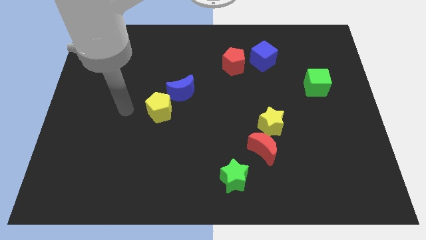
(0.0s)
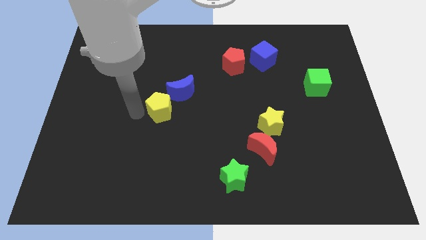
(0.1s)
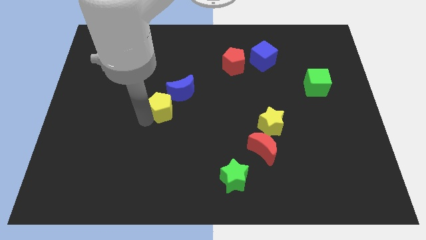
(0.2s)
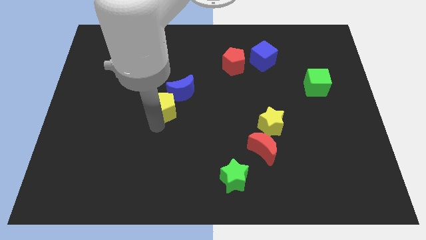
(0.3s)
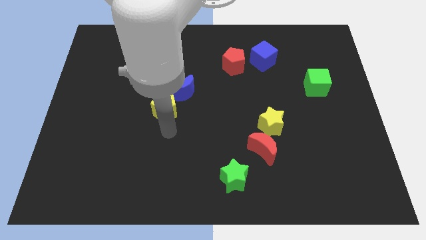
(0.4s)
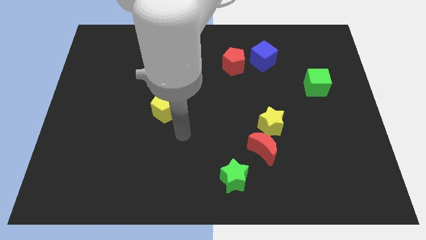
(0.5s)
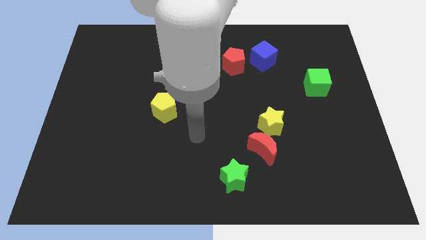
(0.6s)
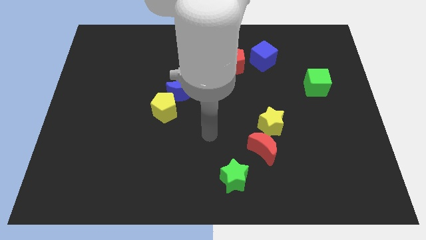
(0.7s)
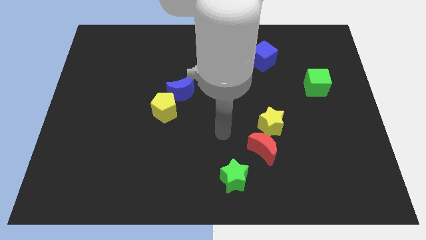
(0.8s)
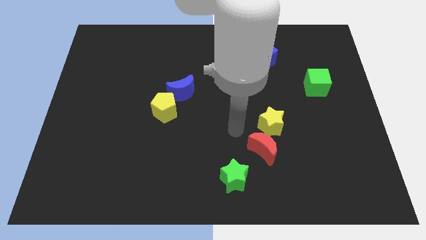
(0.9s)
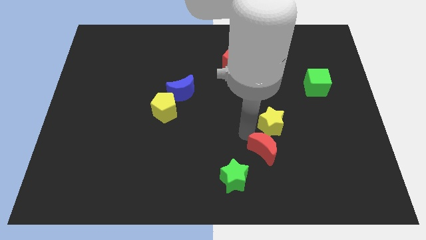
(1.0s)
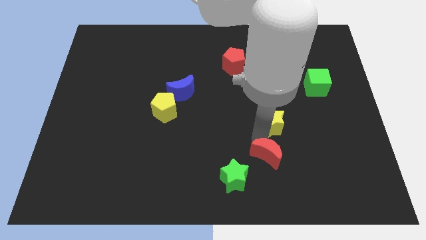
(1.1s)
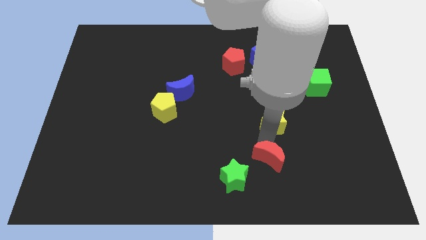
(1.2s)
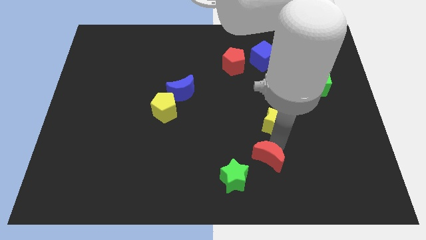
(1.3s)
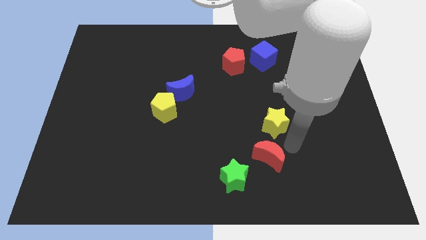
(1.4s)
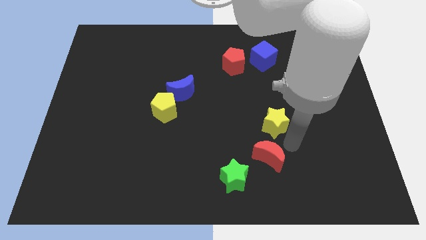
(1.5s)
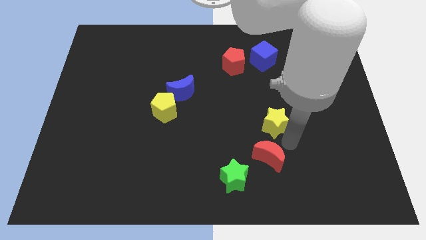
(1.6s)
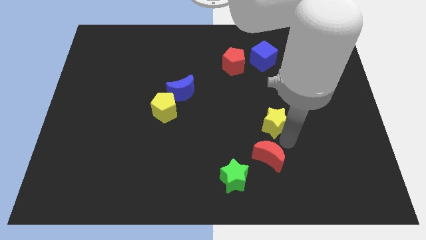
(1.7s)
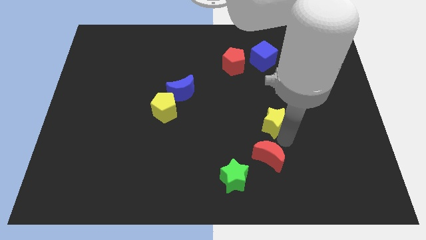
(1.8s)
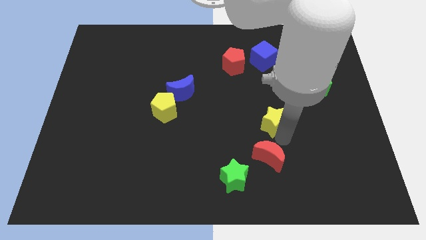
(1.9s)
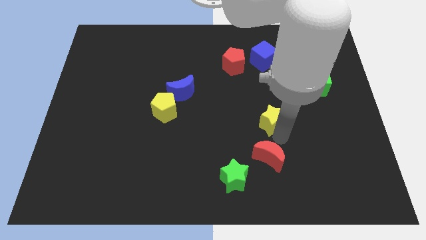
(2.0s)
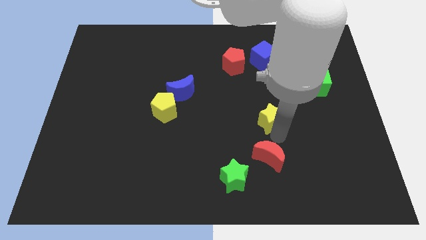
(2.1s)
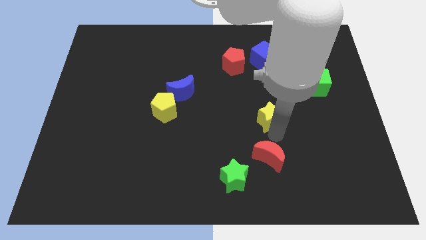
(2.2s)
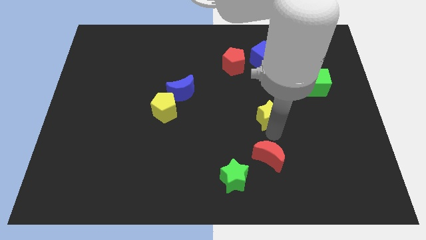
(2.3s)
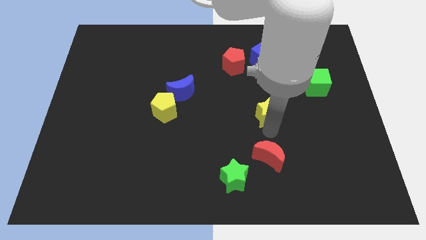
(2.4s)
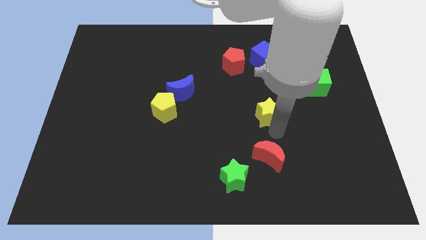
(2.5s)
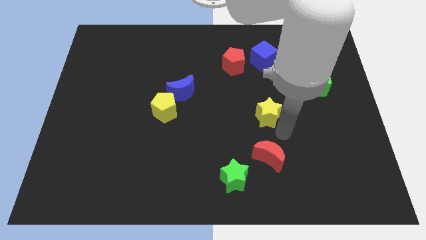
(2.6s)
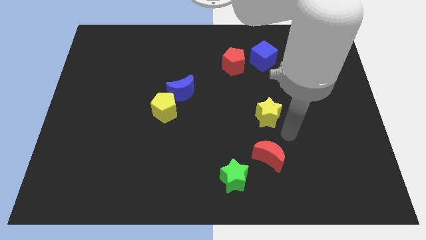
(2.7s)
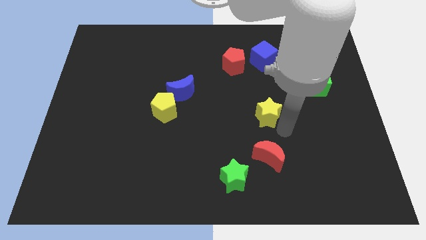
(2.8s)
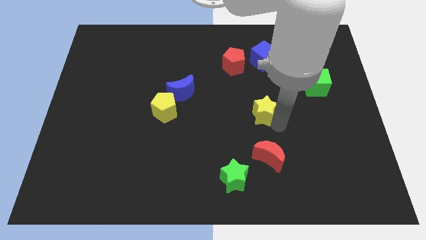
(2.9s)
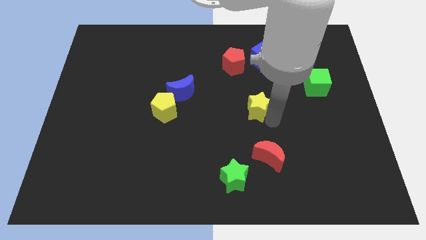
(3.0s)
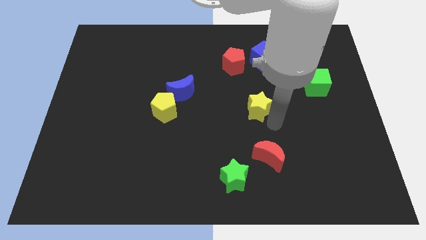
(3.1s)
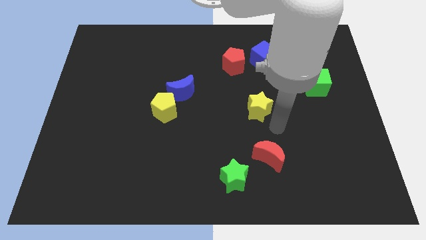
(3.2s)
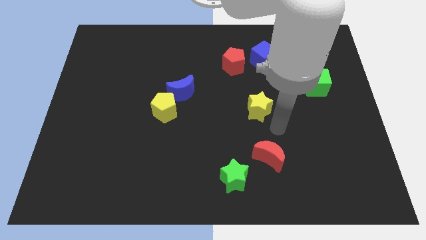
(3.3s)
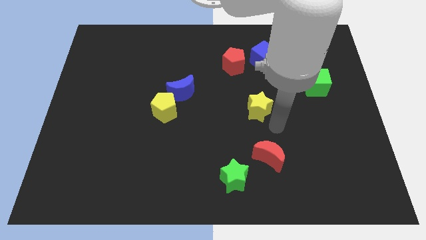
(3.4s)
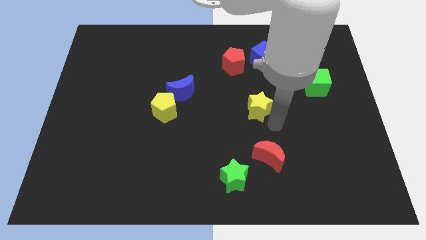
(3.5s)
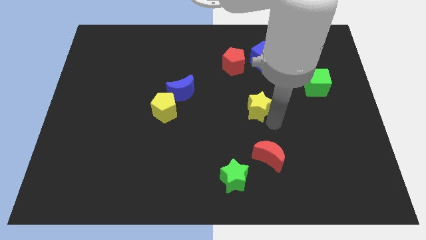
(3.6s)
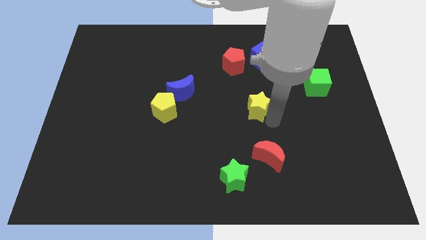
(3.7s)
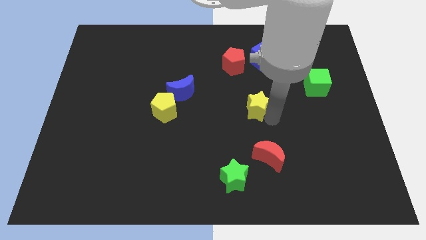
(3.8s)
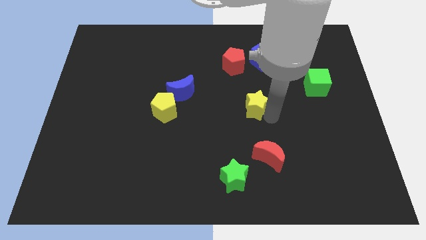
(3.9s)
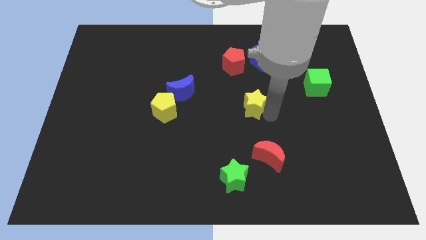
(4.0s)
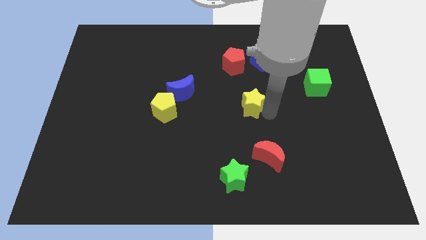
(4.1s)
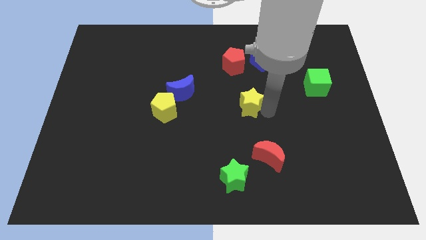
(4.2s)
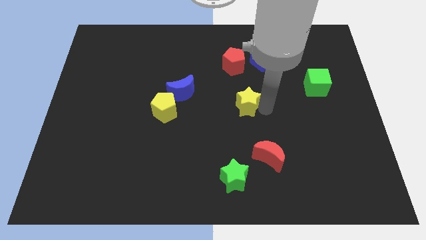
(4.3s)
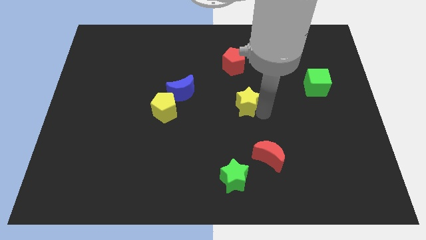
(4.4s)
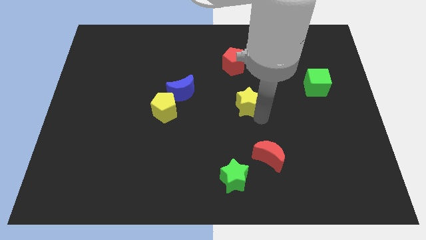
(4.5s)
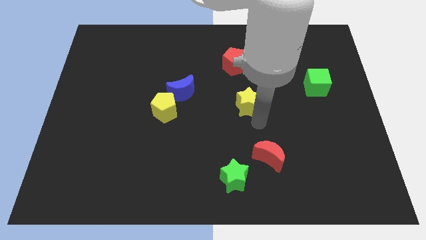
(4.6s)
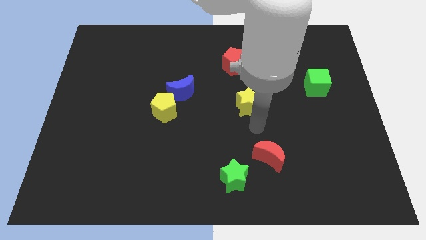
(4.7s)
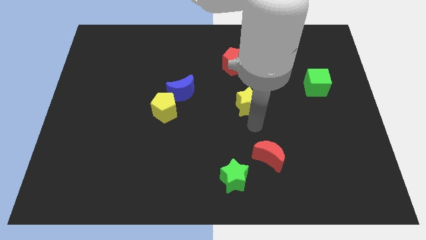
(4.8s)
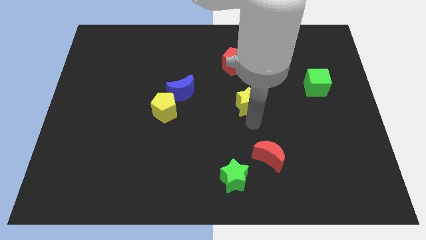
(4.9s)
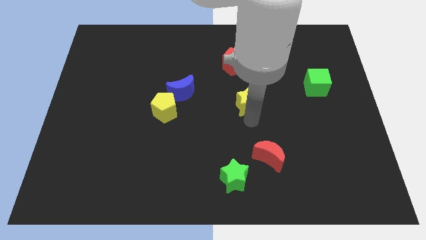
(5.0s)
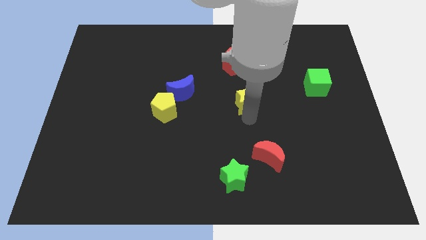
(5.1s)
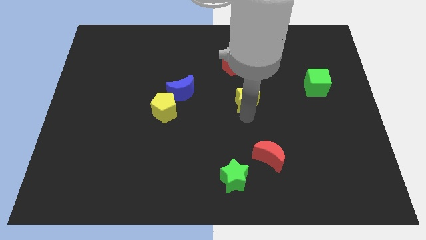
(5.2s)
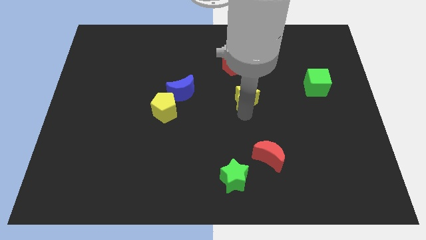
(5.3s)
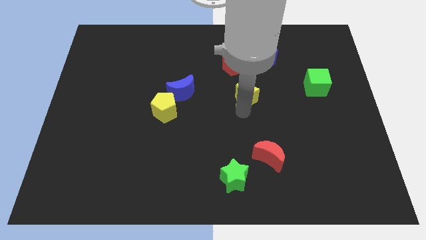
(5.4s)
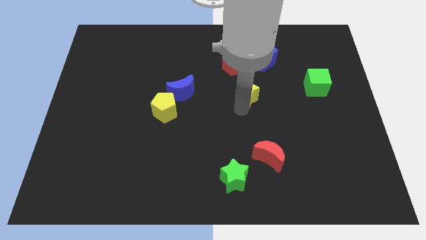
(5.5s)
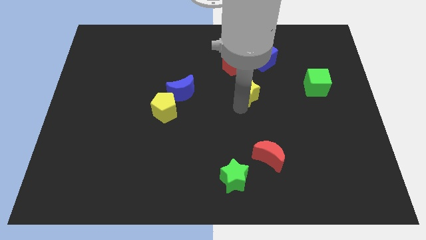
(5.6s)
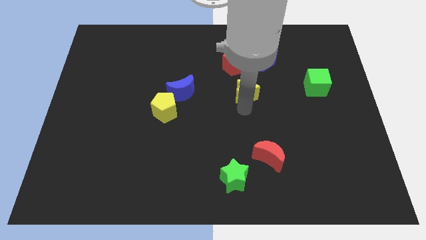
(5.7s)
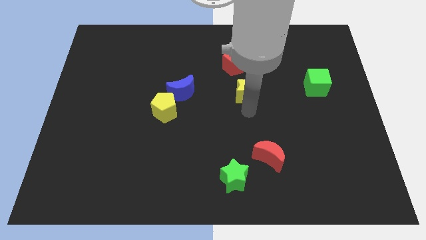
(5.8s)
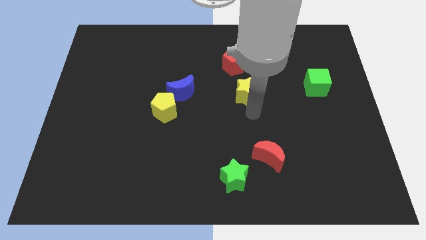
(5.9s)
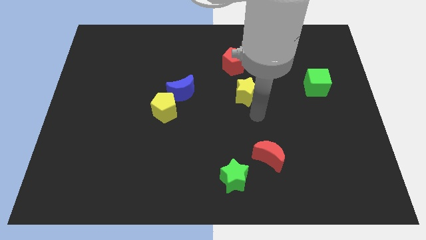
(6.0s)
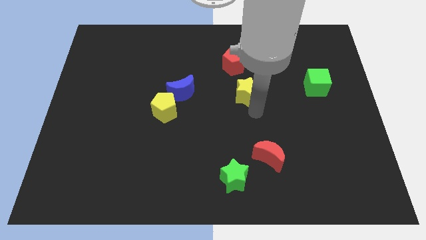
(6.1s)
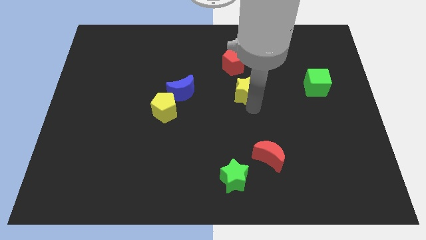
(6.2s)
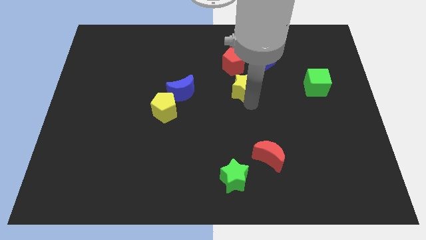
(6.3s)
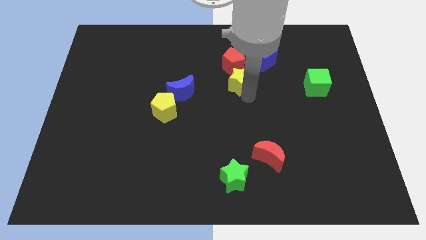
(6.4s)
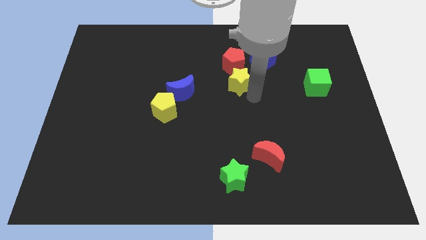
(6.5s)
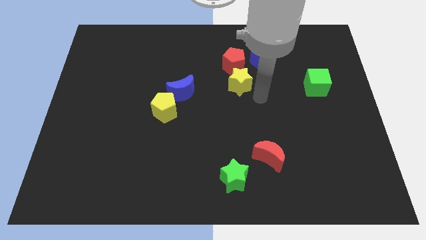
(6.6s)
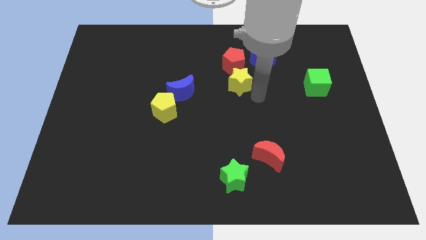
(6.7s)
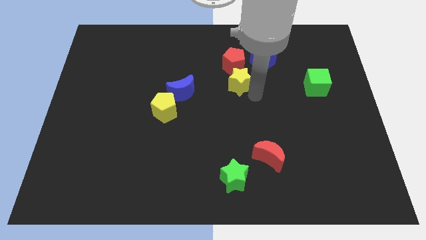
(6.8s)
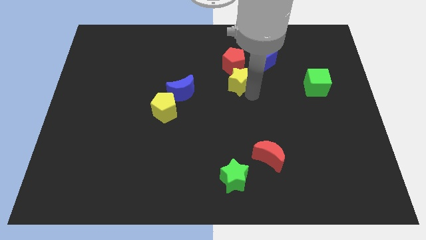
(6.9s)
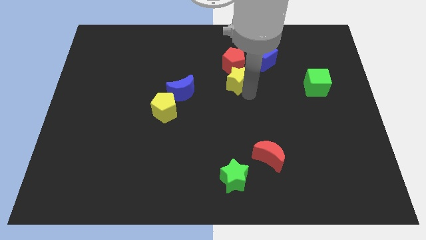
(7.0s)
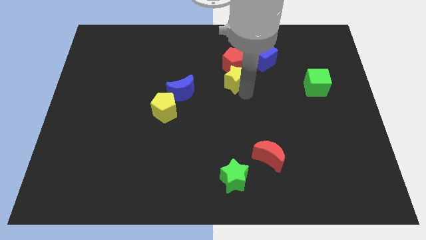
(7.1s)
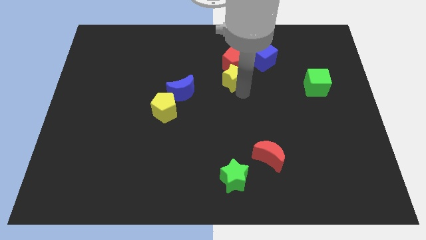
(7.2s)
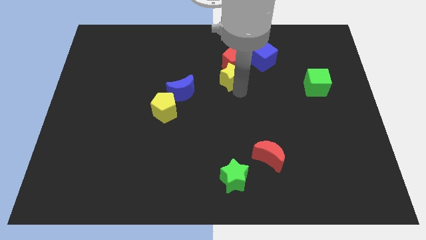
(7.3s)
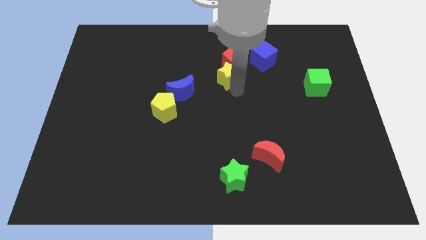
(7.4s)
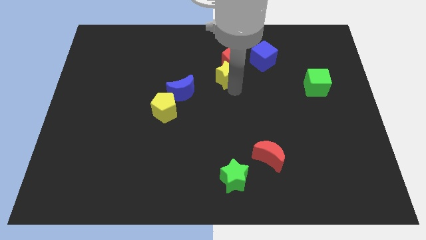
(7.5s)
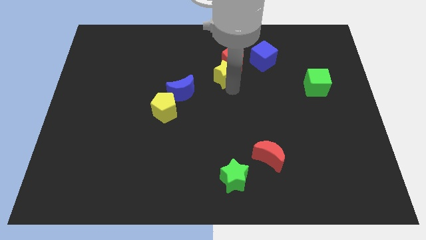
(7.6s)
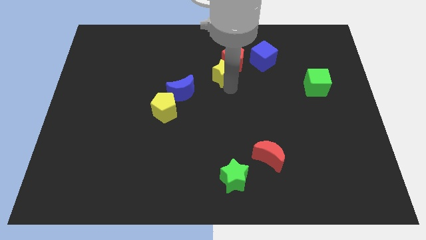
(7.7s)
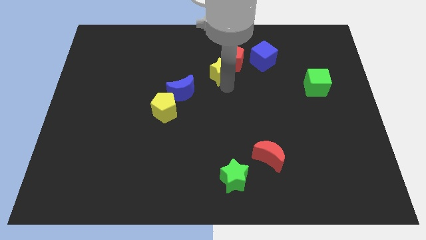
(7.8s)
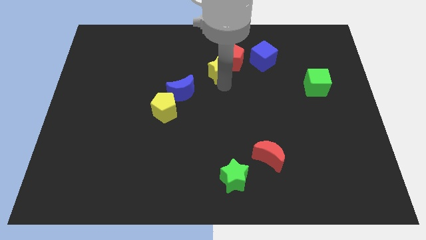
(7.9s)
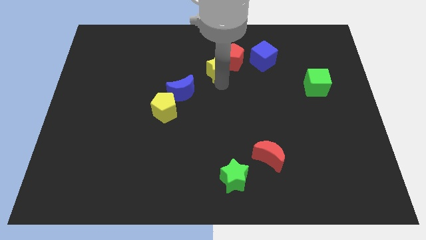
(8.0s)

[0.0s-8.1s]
slide the yellow star left of the blue cube
